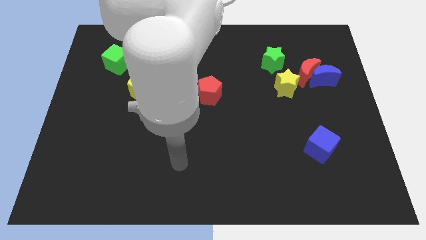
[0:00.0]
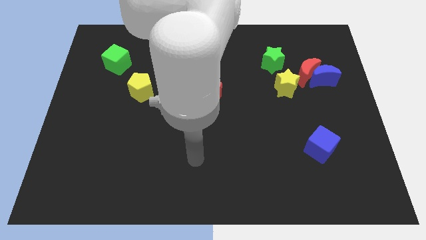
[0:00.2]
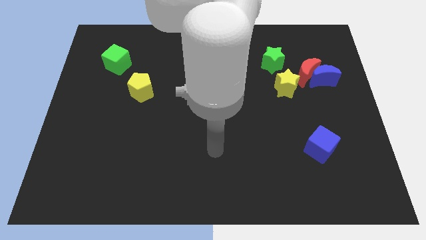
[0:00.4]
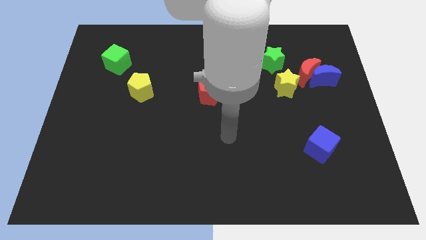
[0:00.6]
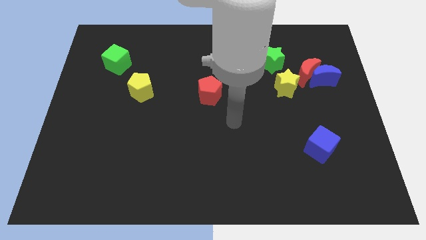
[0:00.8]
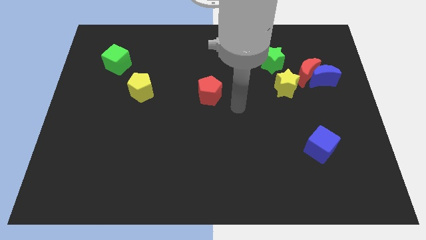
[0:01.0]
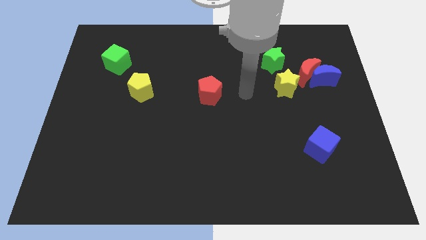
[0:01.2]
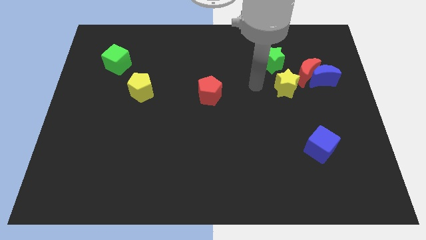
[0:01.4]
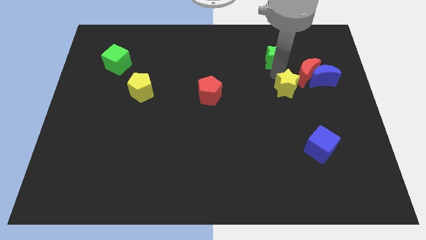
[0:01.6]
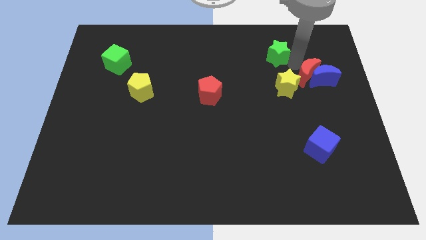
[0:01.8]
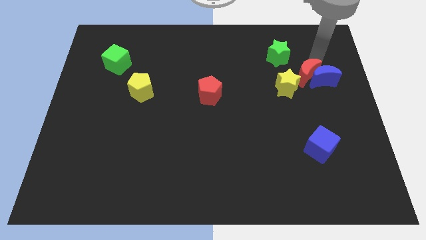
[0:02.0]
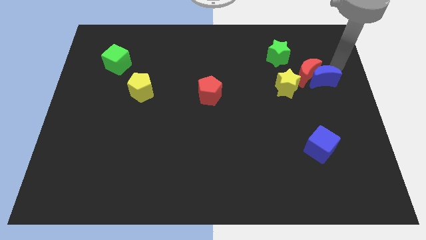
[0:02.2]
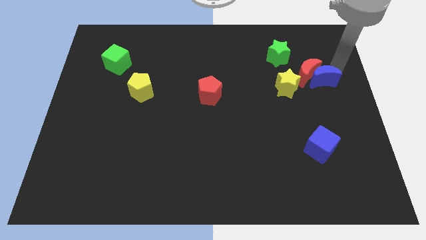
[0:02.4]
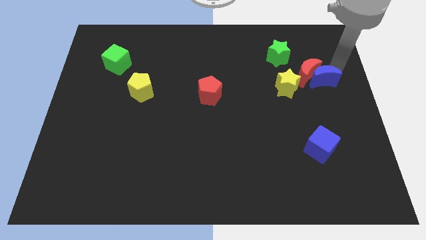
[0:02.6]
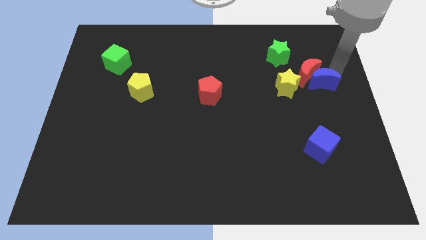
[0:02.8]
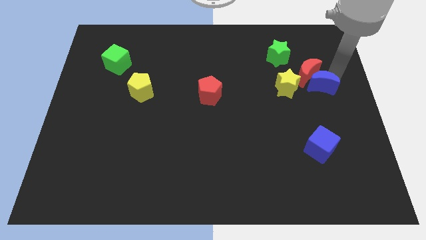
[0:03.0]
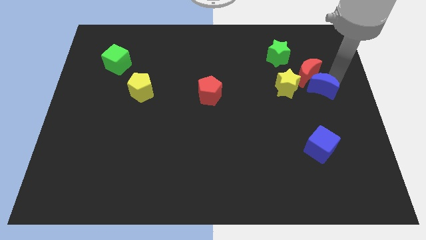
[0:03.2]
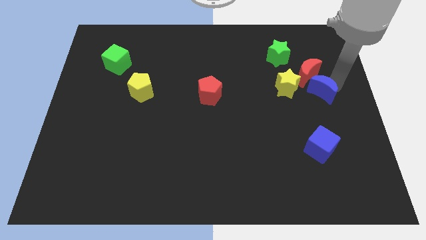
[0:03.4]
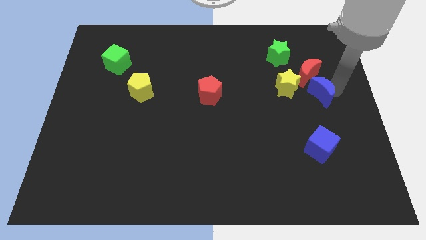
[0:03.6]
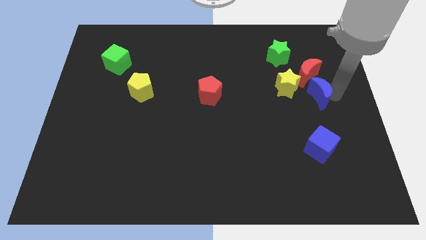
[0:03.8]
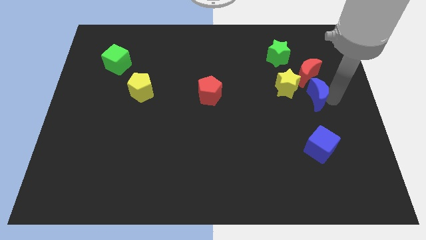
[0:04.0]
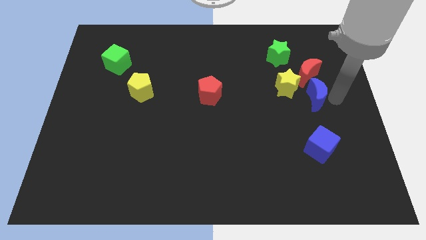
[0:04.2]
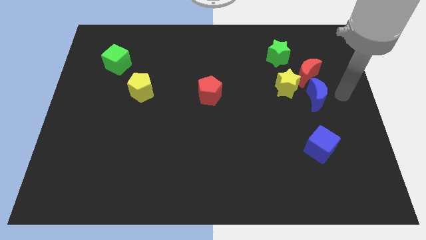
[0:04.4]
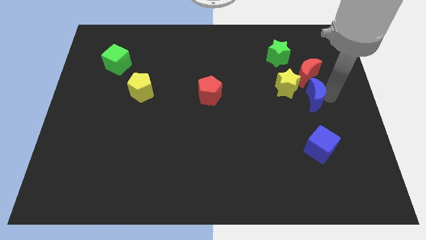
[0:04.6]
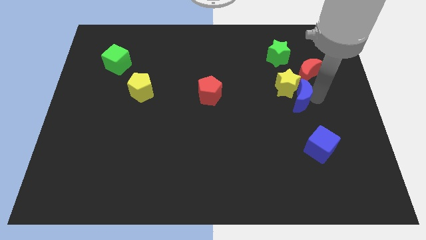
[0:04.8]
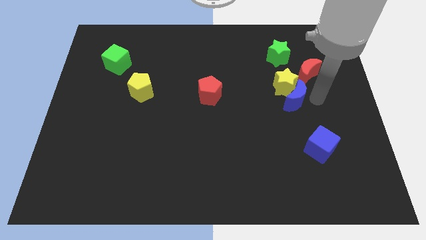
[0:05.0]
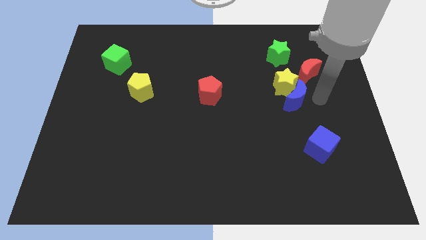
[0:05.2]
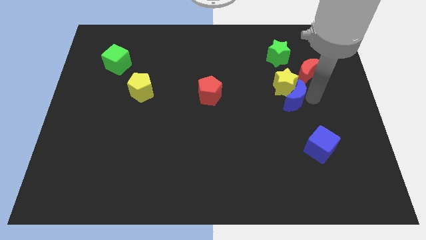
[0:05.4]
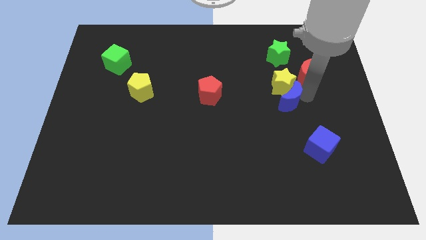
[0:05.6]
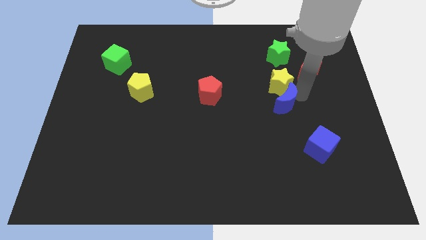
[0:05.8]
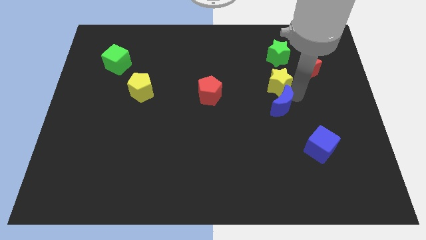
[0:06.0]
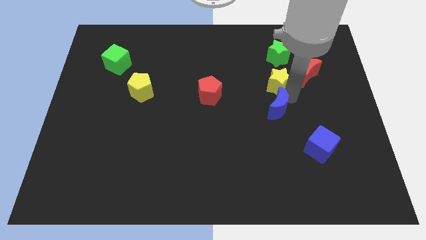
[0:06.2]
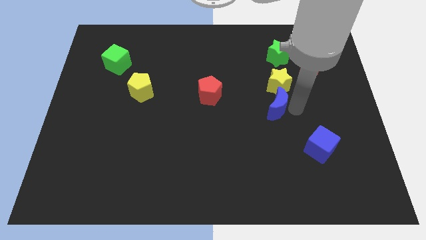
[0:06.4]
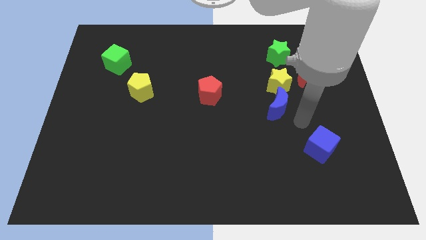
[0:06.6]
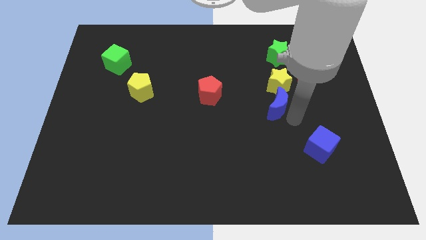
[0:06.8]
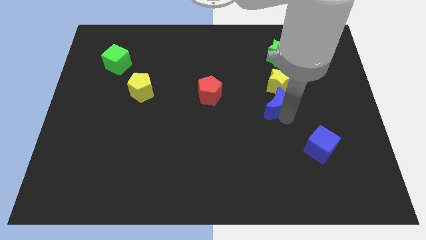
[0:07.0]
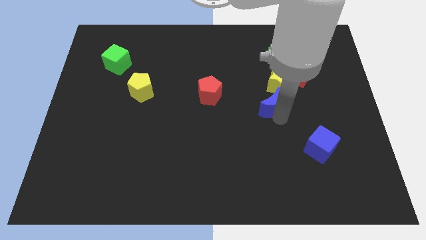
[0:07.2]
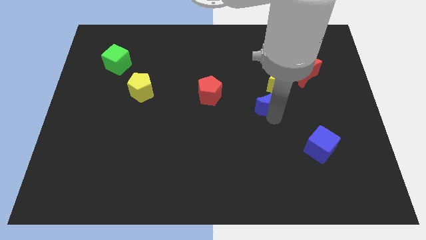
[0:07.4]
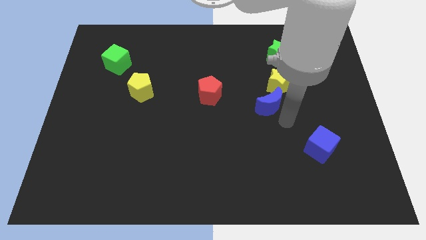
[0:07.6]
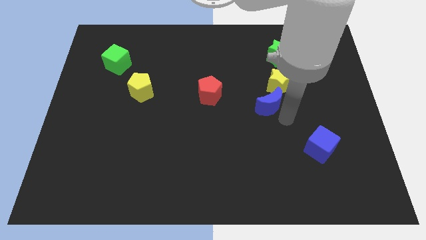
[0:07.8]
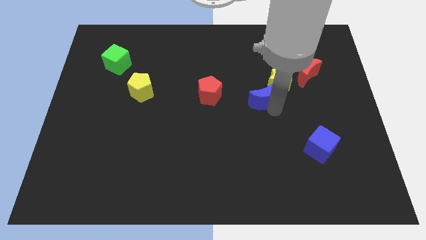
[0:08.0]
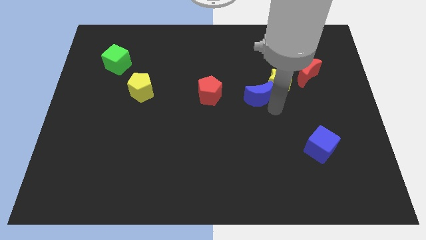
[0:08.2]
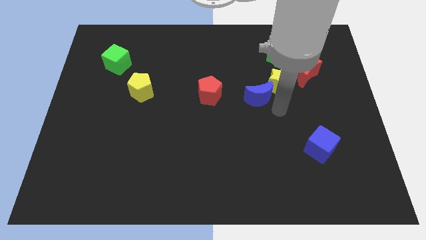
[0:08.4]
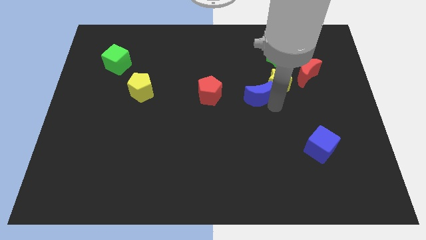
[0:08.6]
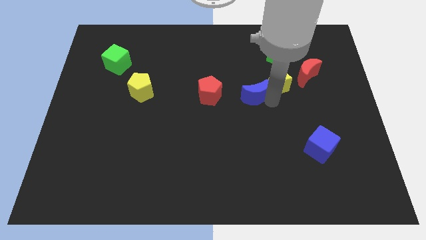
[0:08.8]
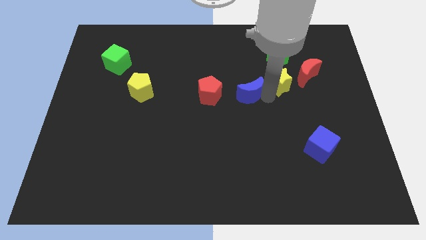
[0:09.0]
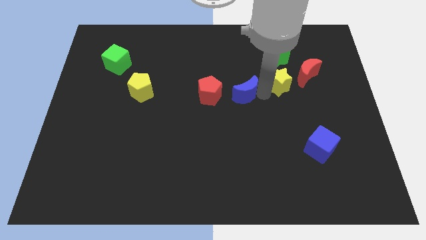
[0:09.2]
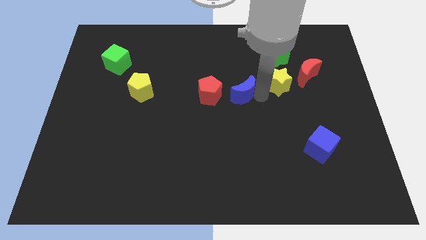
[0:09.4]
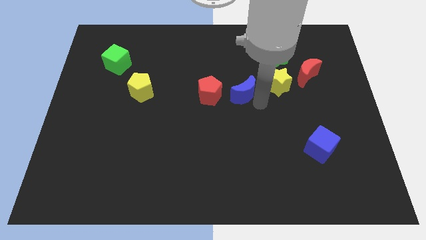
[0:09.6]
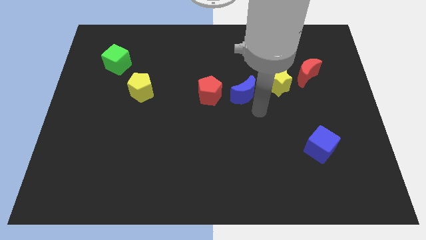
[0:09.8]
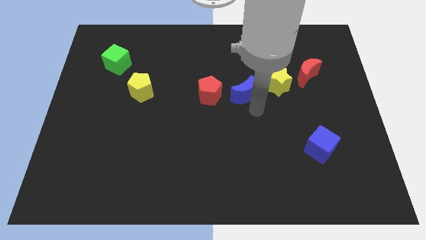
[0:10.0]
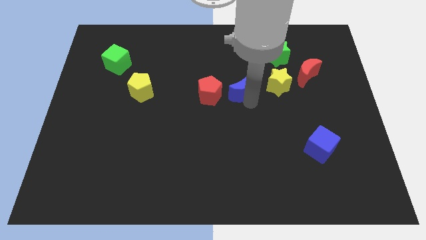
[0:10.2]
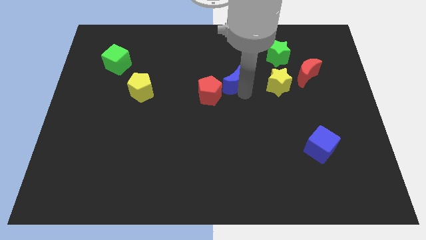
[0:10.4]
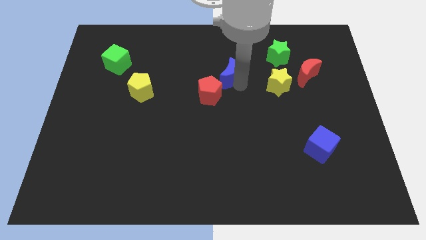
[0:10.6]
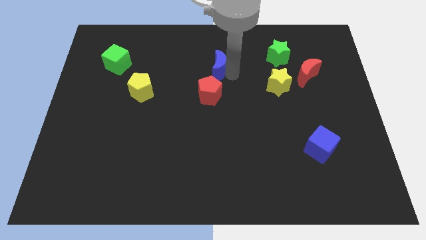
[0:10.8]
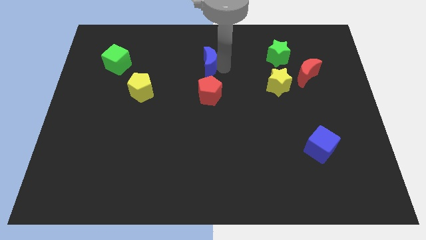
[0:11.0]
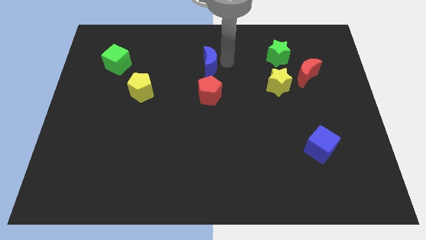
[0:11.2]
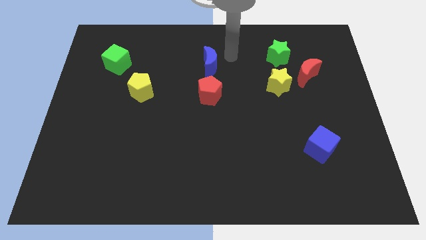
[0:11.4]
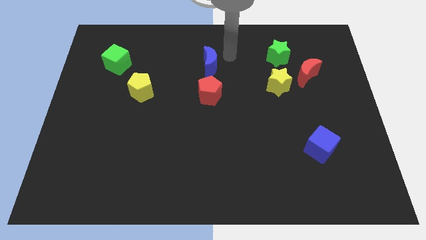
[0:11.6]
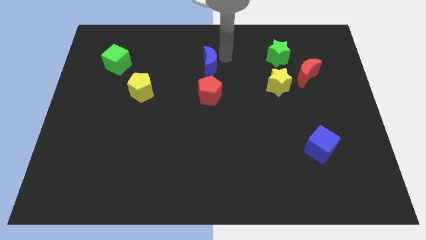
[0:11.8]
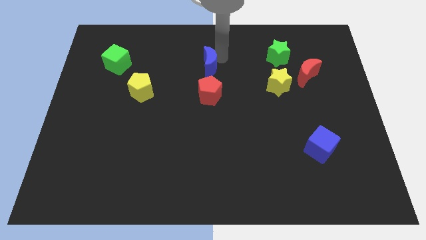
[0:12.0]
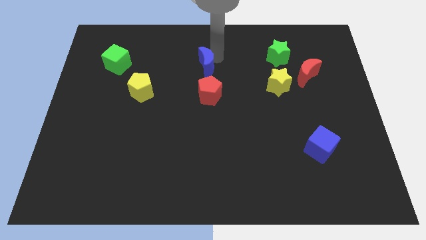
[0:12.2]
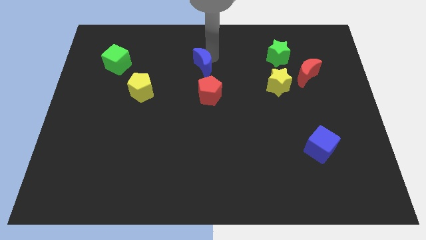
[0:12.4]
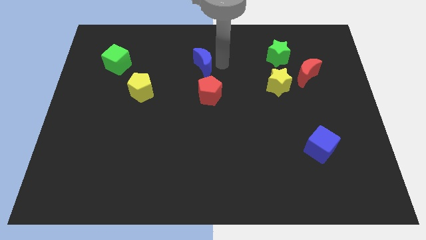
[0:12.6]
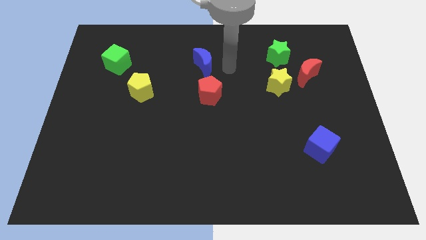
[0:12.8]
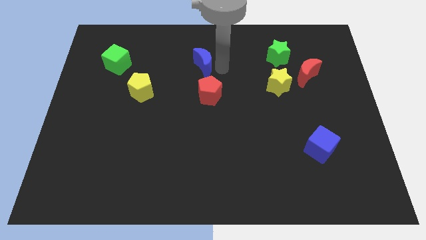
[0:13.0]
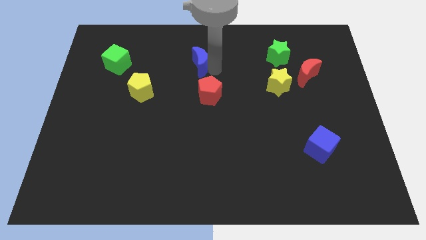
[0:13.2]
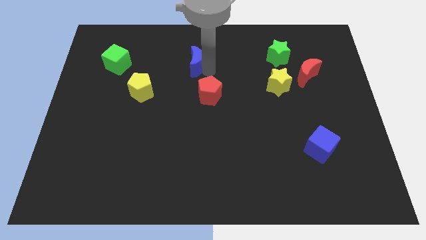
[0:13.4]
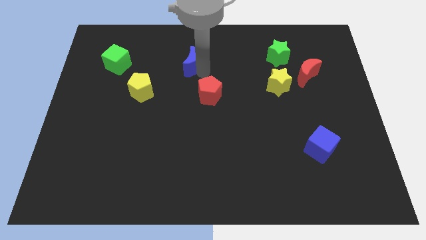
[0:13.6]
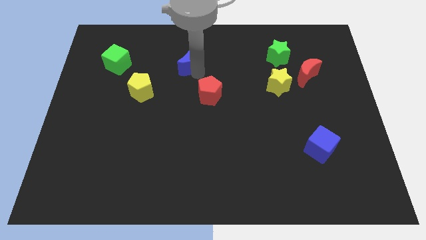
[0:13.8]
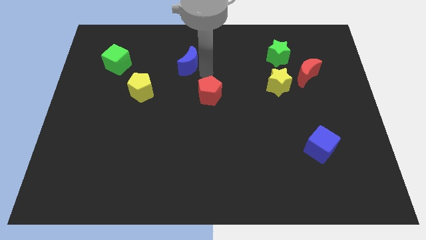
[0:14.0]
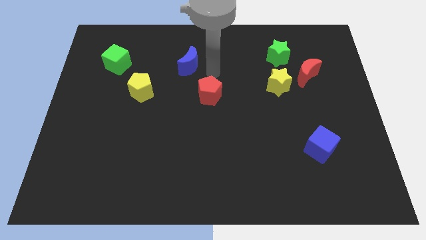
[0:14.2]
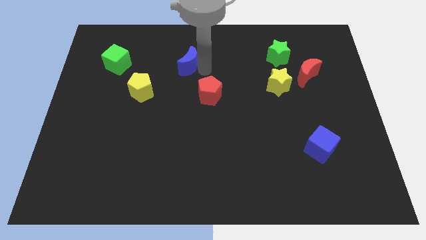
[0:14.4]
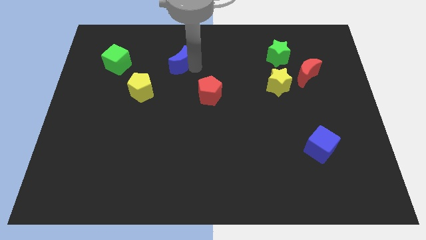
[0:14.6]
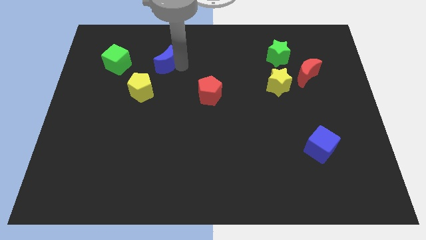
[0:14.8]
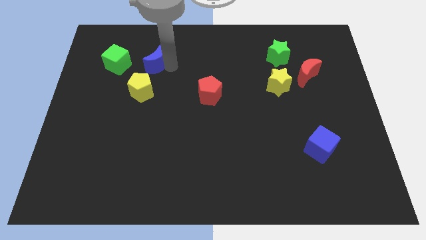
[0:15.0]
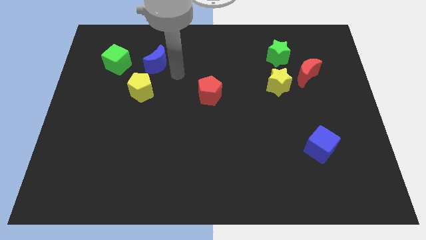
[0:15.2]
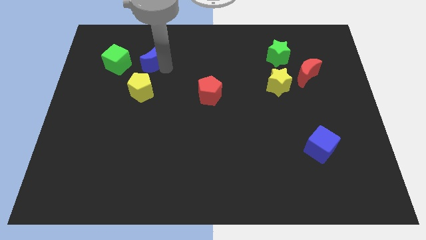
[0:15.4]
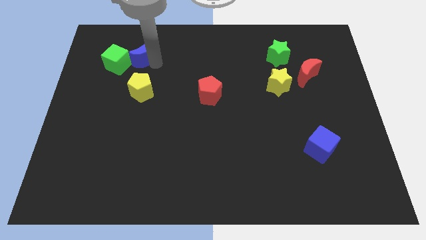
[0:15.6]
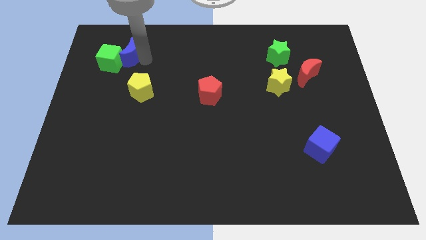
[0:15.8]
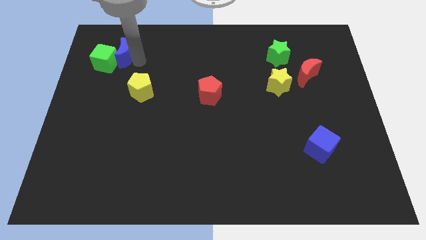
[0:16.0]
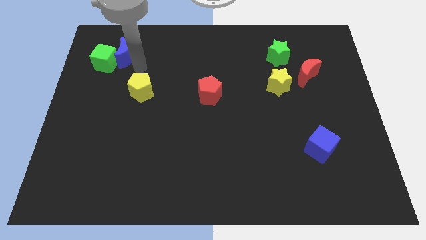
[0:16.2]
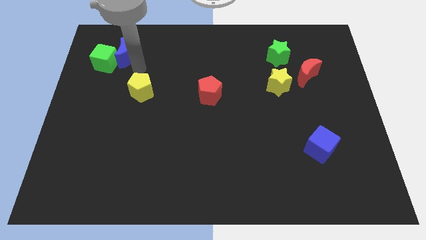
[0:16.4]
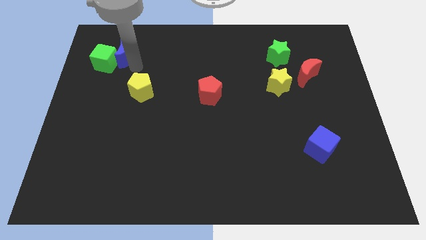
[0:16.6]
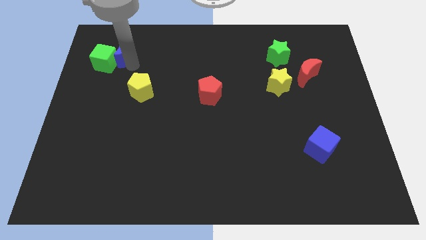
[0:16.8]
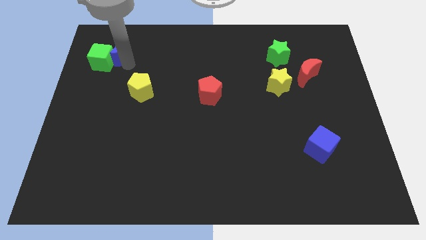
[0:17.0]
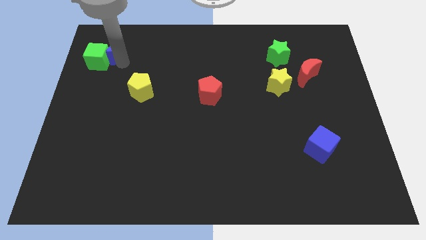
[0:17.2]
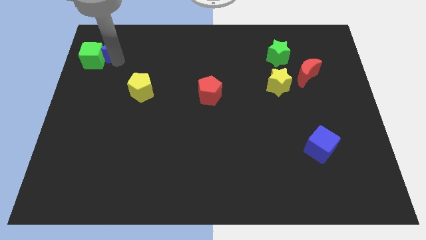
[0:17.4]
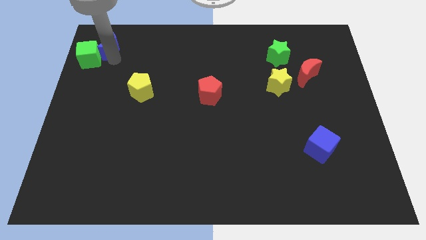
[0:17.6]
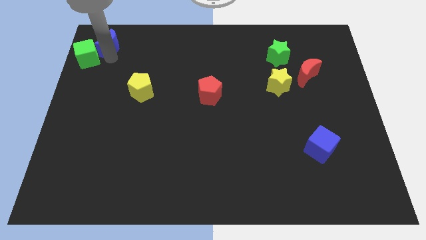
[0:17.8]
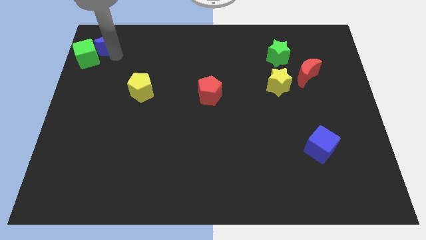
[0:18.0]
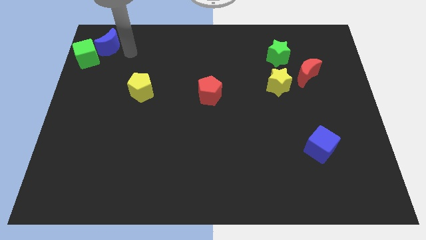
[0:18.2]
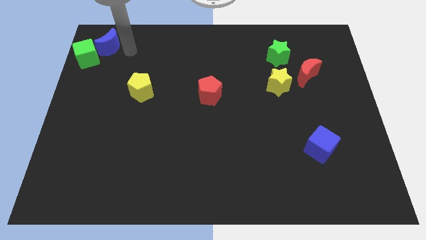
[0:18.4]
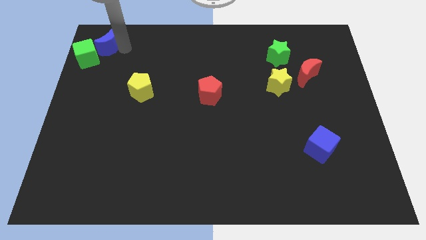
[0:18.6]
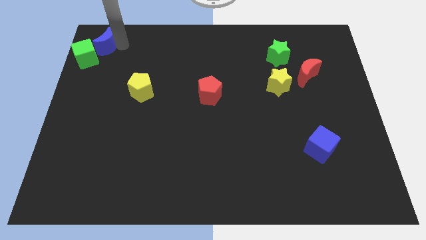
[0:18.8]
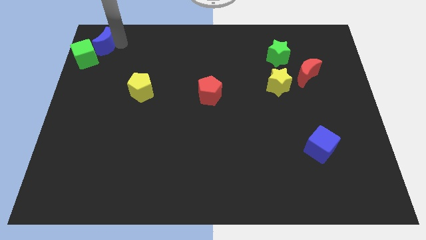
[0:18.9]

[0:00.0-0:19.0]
push the blue moon to the top left
